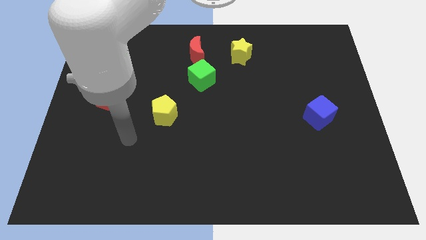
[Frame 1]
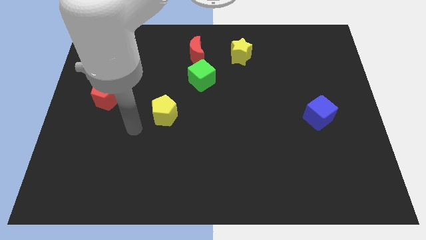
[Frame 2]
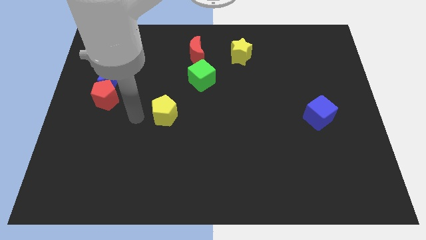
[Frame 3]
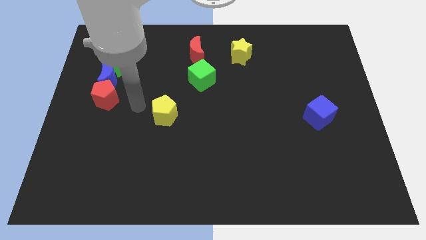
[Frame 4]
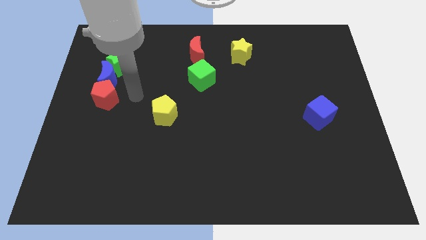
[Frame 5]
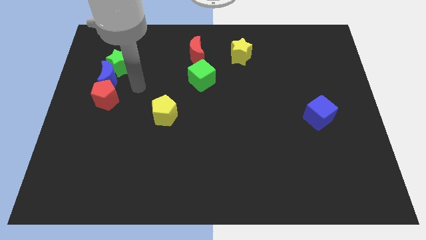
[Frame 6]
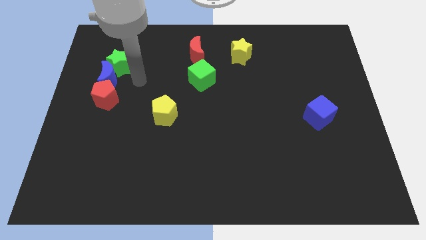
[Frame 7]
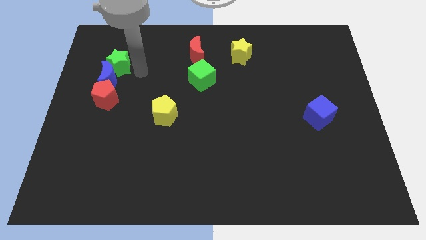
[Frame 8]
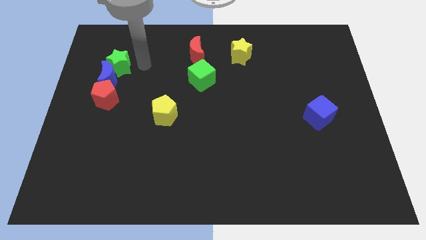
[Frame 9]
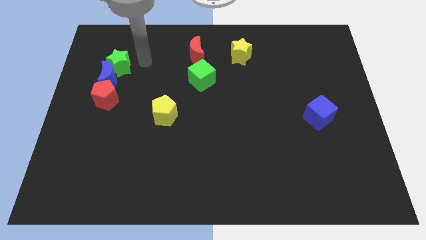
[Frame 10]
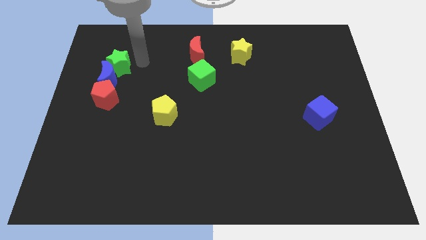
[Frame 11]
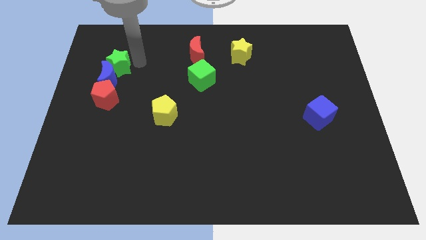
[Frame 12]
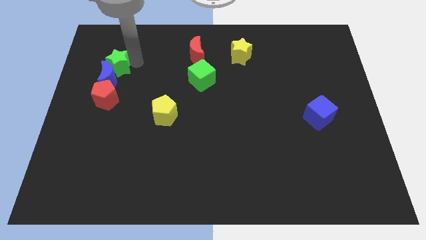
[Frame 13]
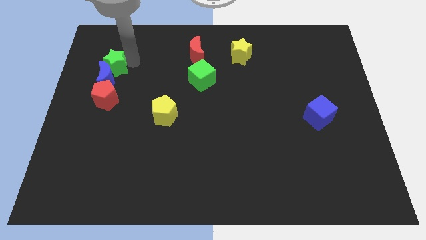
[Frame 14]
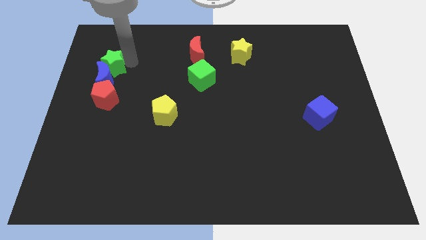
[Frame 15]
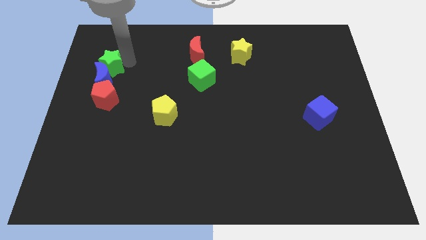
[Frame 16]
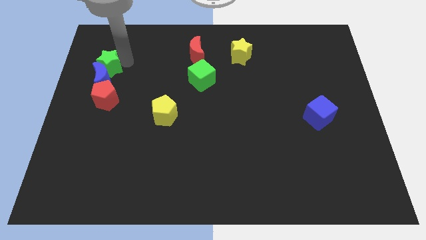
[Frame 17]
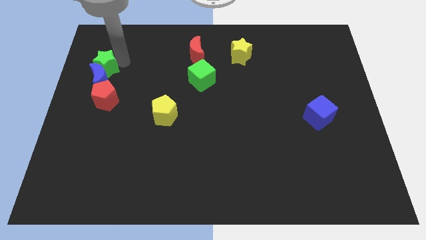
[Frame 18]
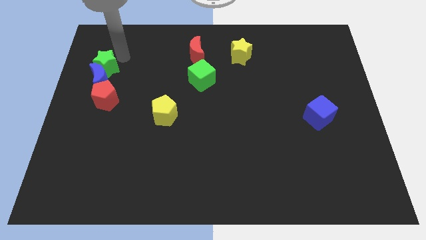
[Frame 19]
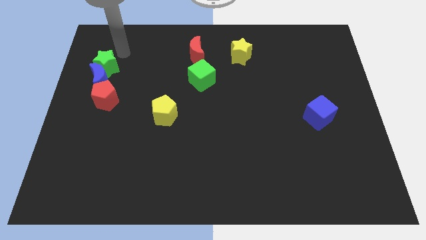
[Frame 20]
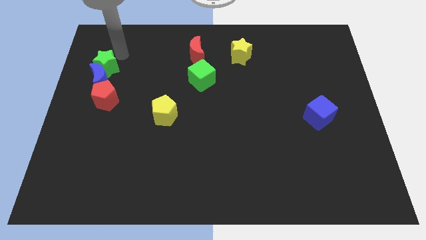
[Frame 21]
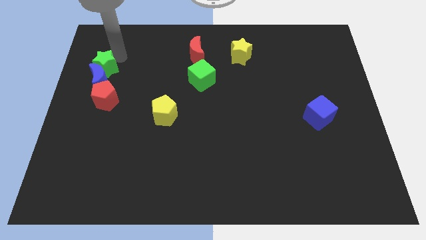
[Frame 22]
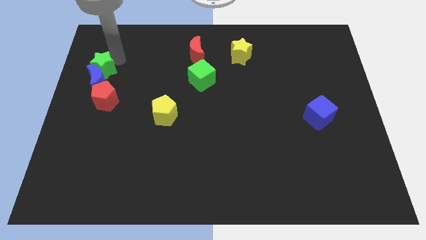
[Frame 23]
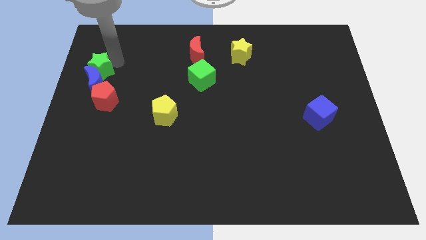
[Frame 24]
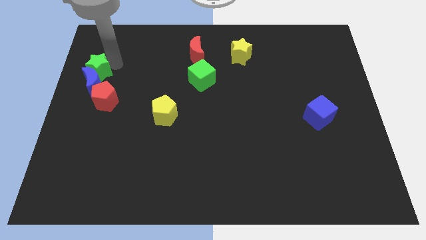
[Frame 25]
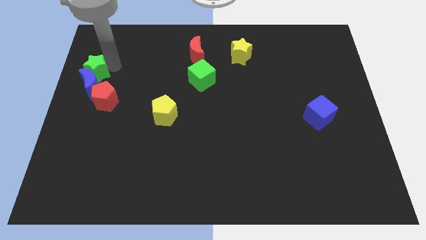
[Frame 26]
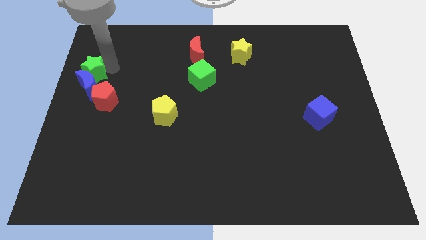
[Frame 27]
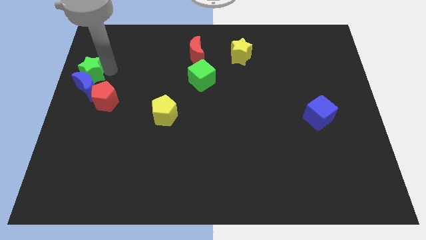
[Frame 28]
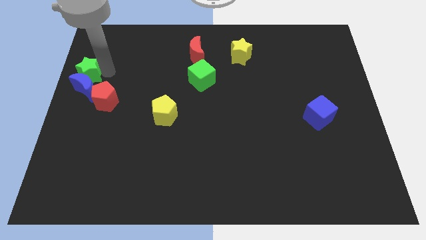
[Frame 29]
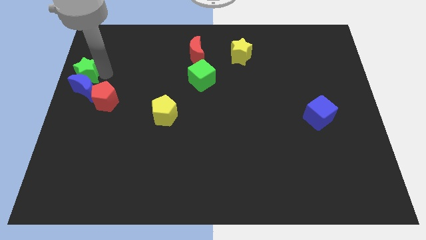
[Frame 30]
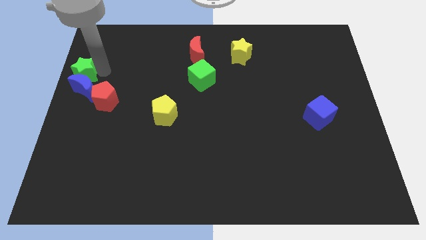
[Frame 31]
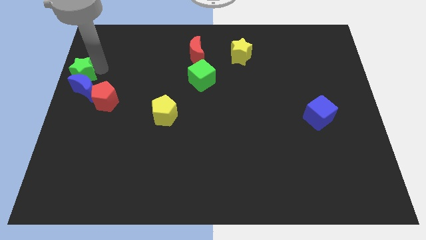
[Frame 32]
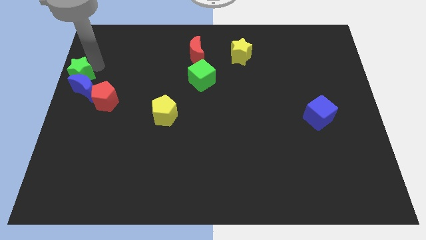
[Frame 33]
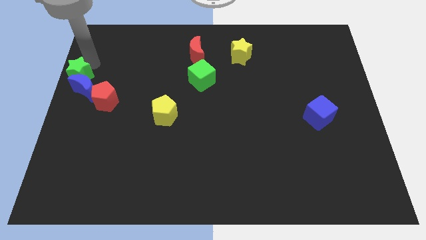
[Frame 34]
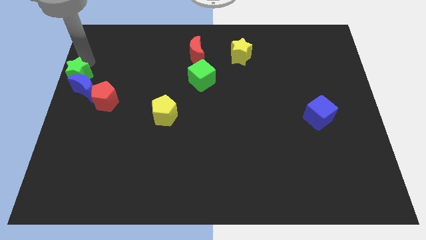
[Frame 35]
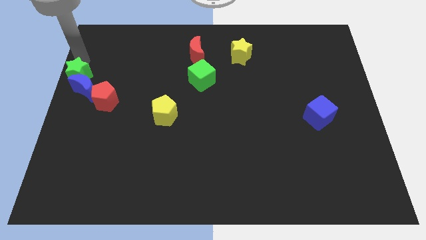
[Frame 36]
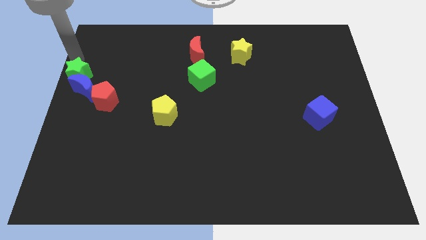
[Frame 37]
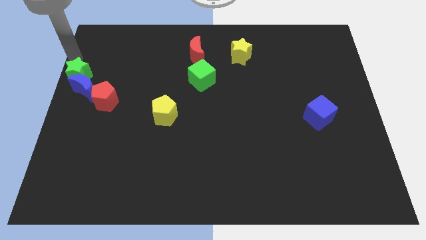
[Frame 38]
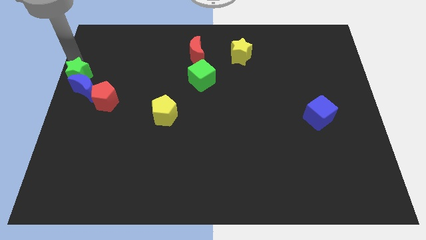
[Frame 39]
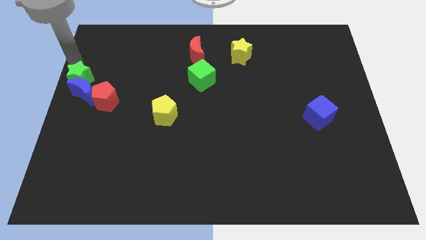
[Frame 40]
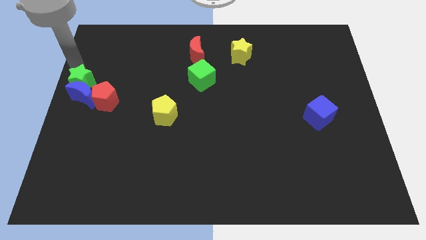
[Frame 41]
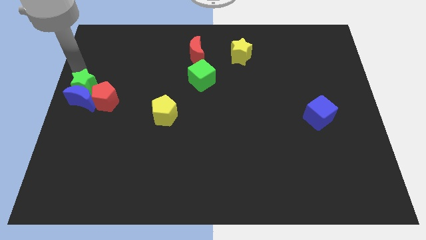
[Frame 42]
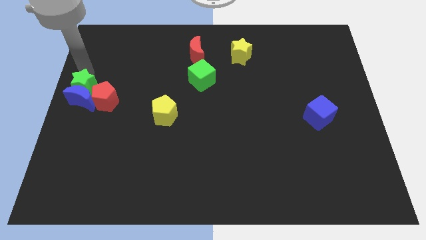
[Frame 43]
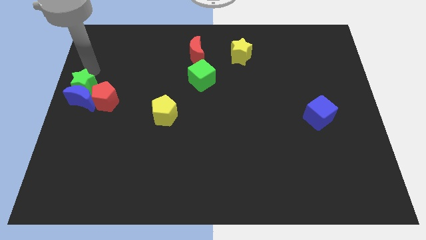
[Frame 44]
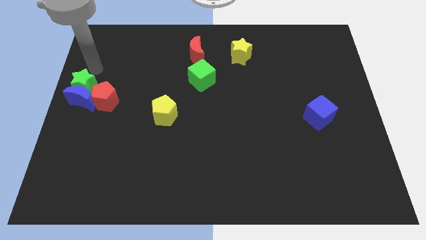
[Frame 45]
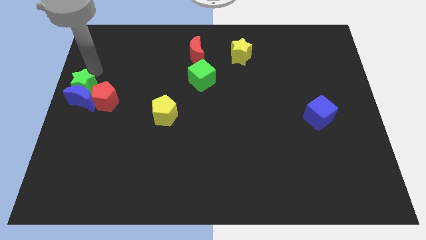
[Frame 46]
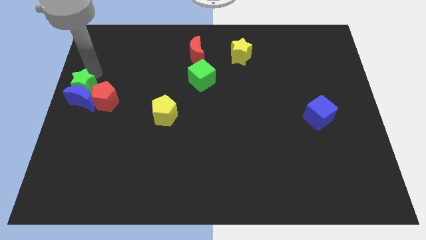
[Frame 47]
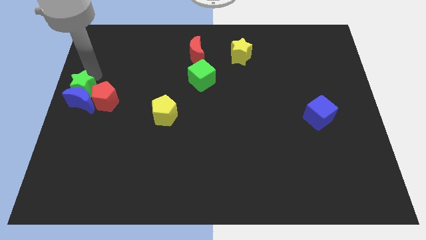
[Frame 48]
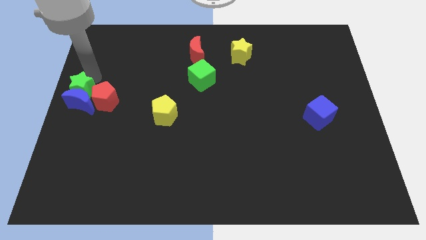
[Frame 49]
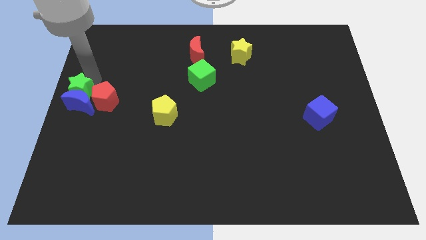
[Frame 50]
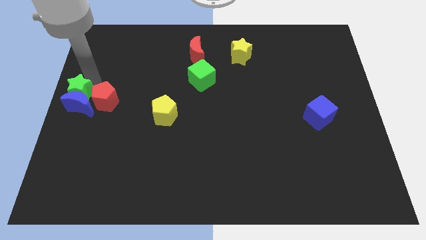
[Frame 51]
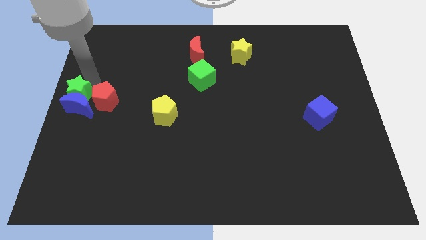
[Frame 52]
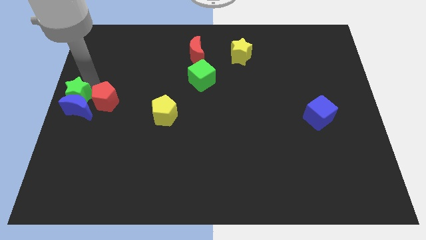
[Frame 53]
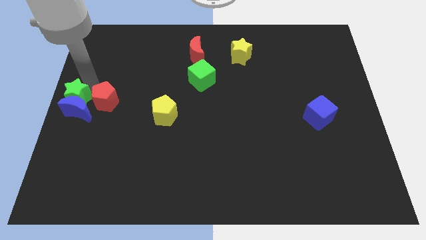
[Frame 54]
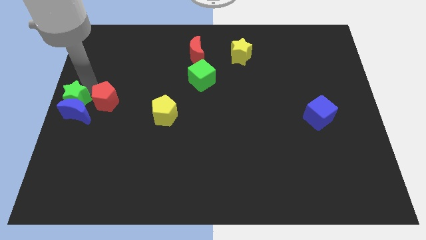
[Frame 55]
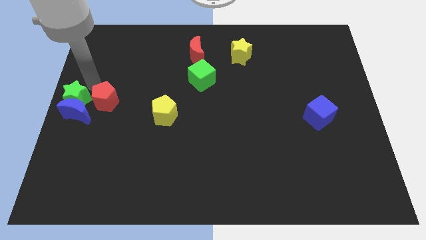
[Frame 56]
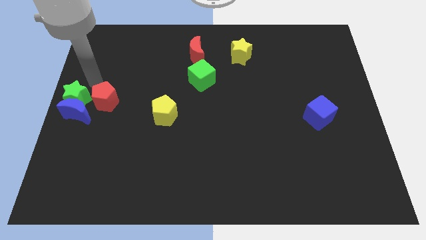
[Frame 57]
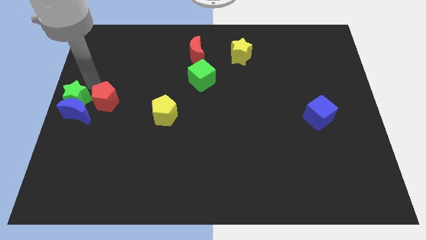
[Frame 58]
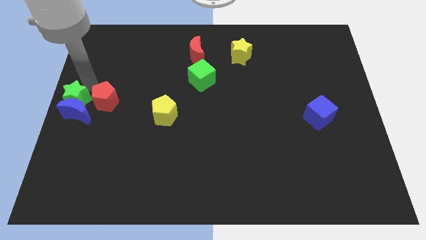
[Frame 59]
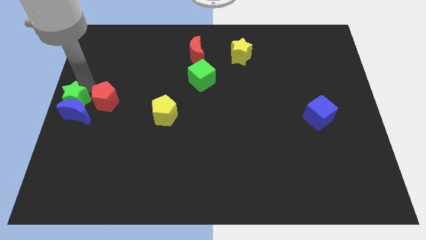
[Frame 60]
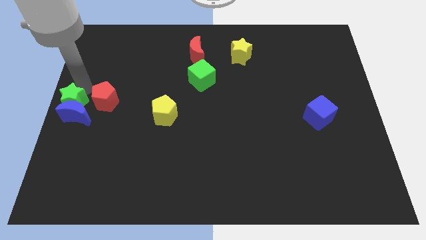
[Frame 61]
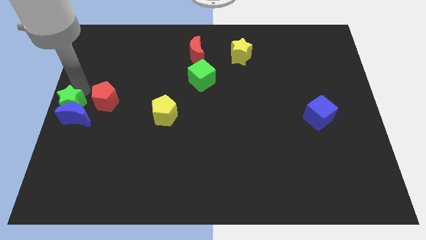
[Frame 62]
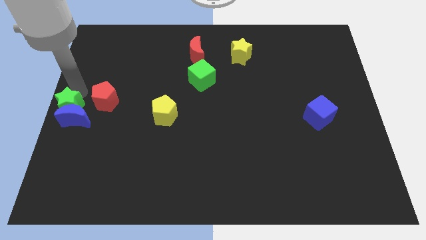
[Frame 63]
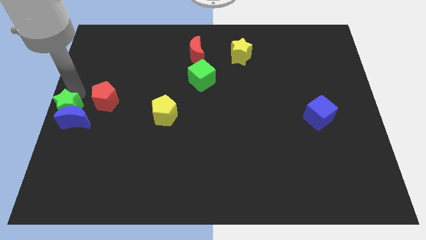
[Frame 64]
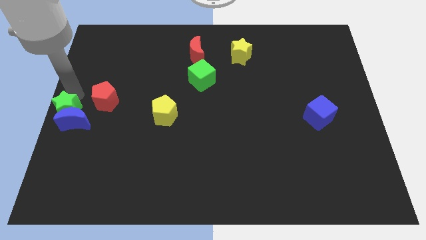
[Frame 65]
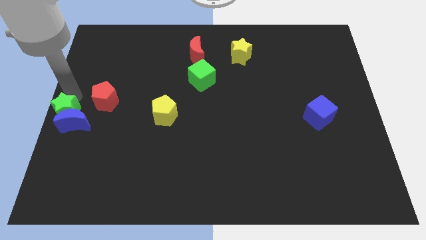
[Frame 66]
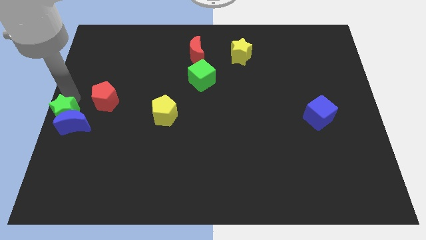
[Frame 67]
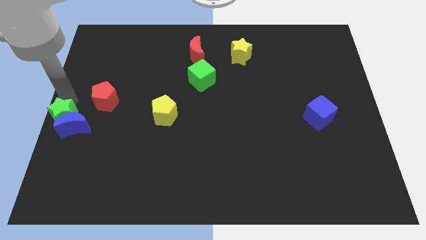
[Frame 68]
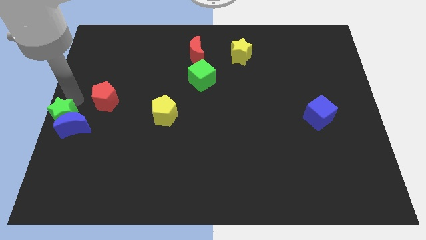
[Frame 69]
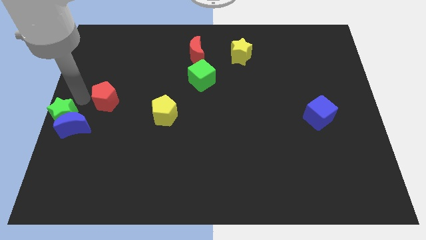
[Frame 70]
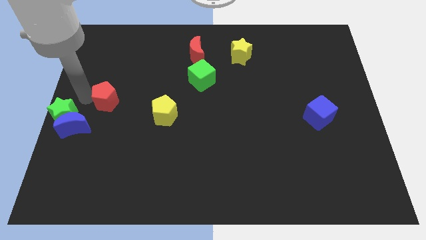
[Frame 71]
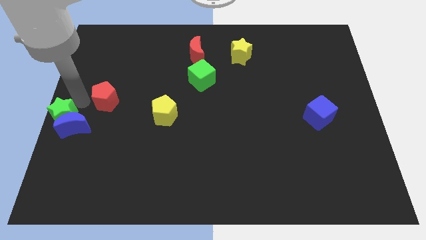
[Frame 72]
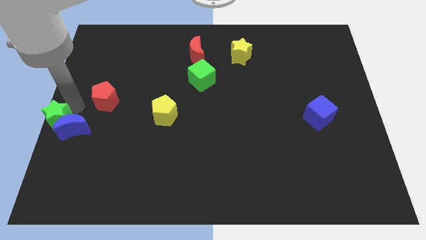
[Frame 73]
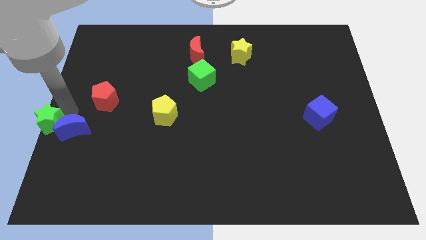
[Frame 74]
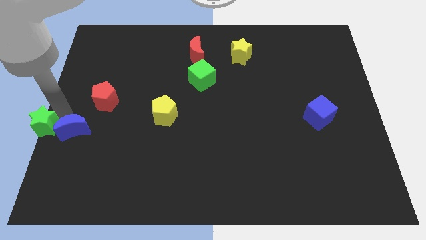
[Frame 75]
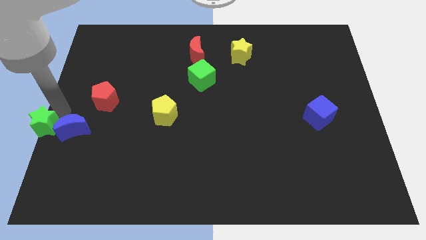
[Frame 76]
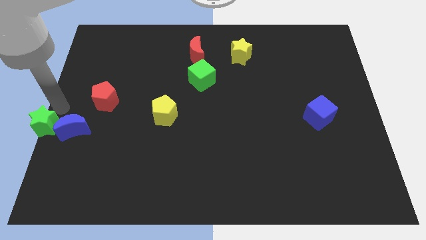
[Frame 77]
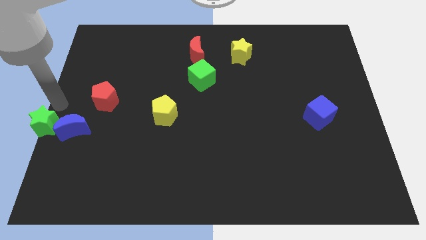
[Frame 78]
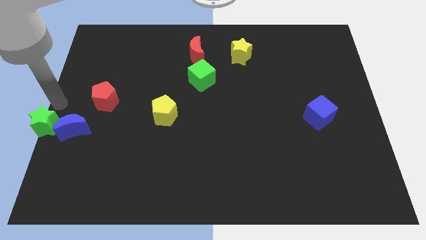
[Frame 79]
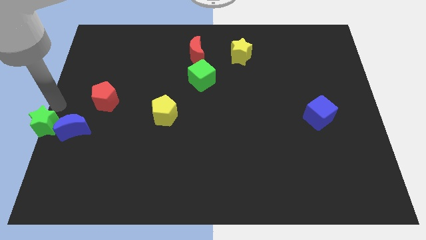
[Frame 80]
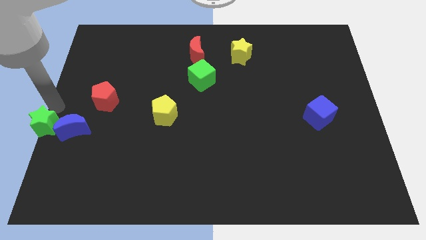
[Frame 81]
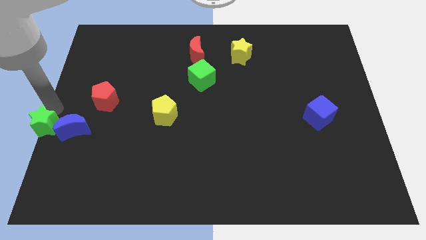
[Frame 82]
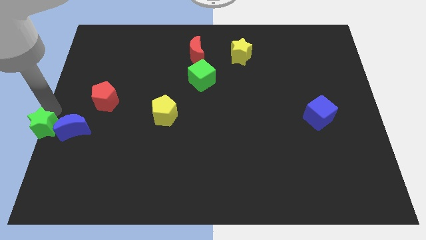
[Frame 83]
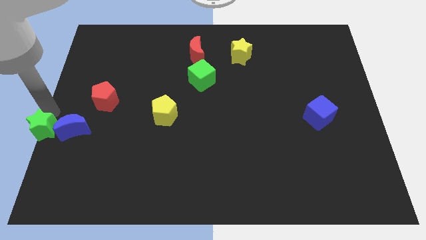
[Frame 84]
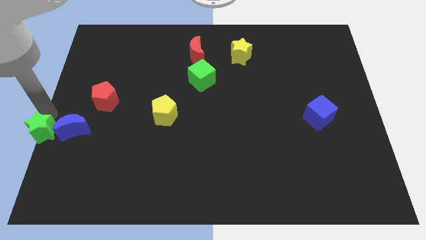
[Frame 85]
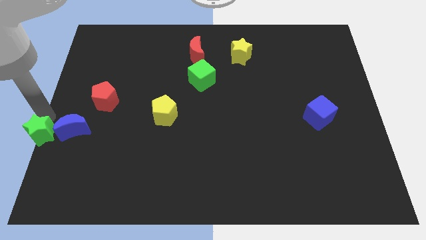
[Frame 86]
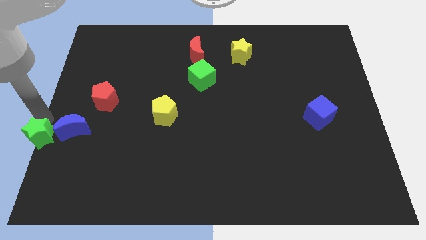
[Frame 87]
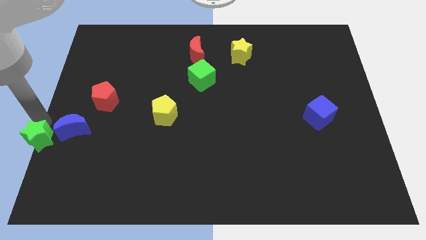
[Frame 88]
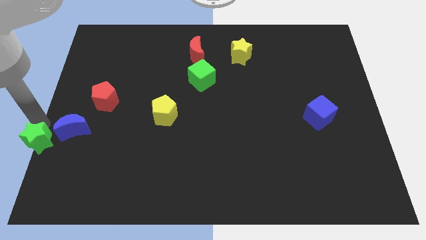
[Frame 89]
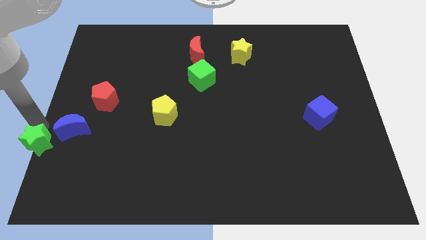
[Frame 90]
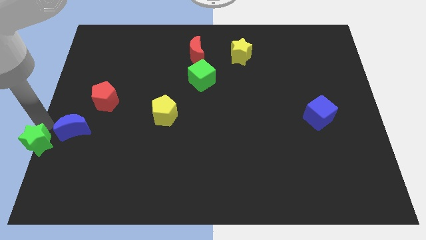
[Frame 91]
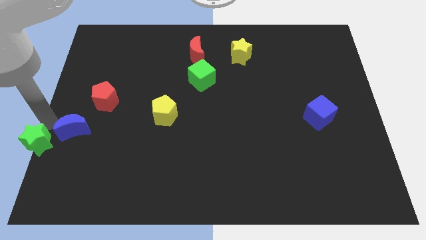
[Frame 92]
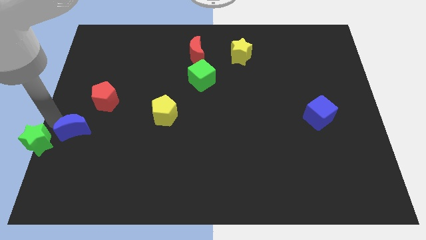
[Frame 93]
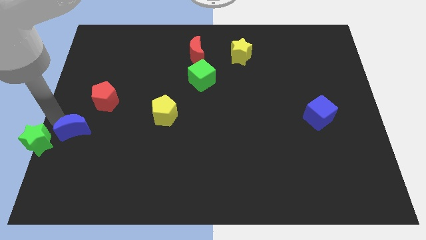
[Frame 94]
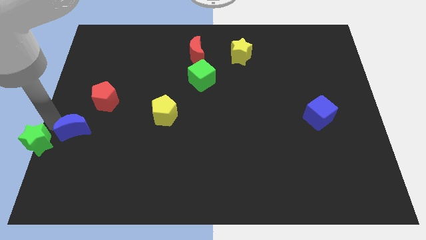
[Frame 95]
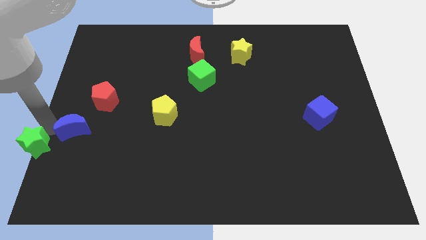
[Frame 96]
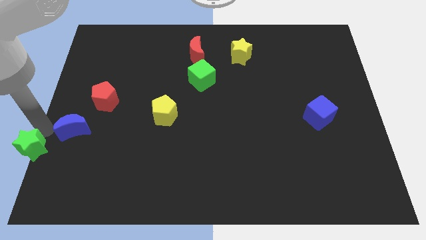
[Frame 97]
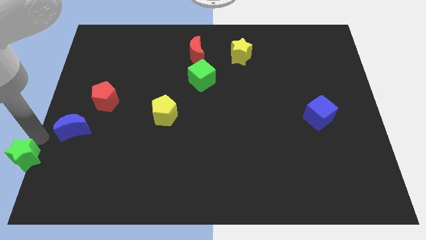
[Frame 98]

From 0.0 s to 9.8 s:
push the green star to the bottom left corner
